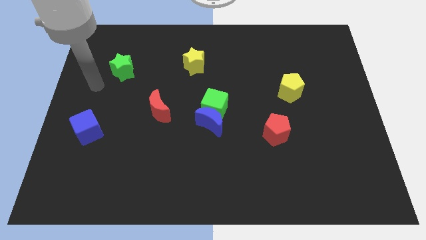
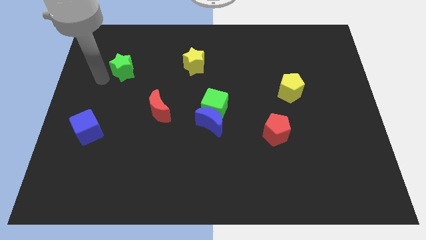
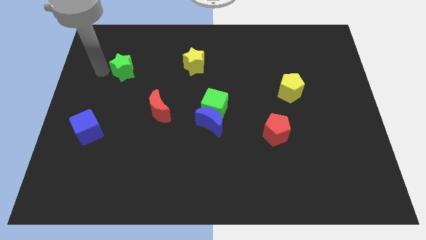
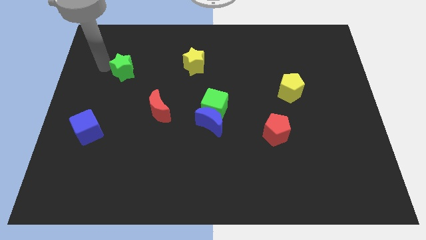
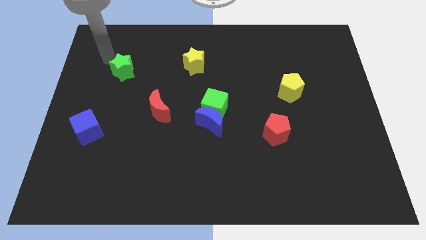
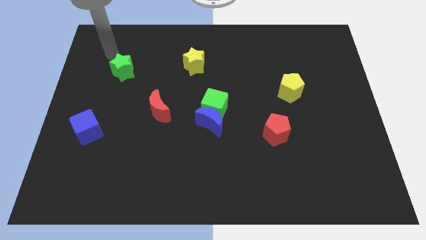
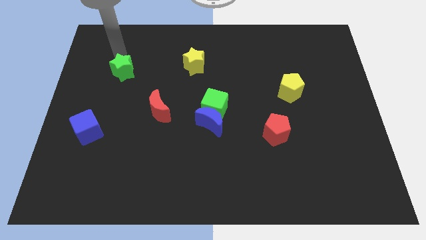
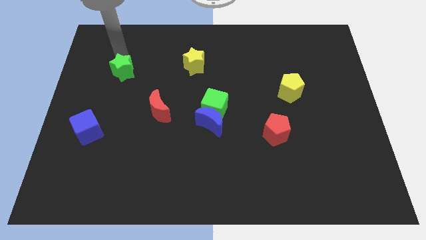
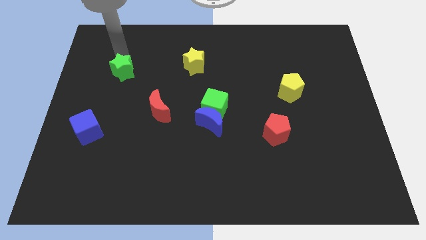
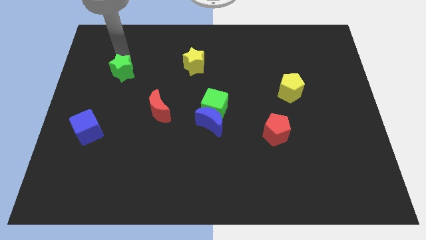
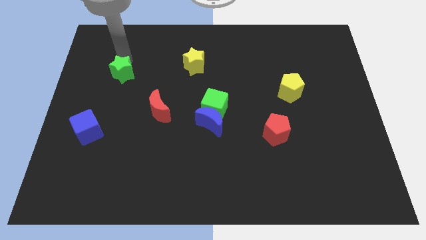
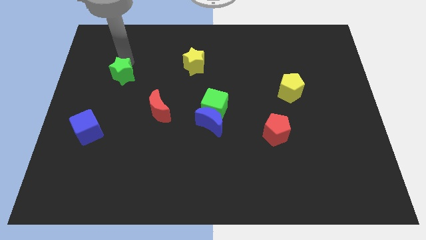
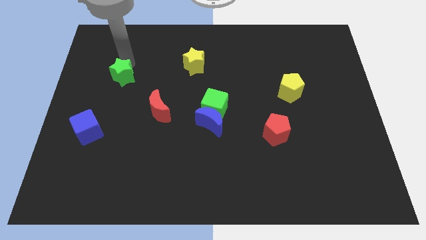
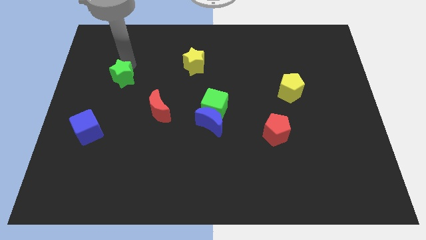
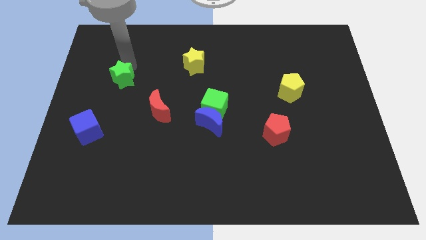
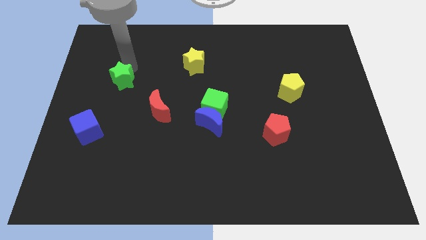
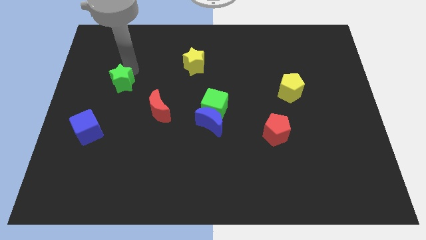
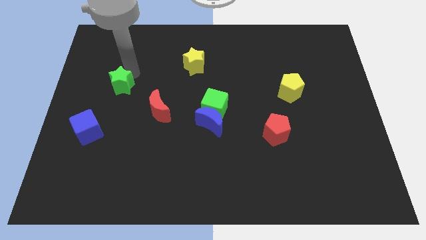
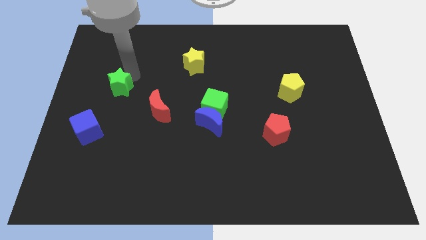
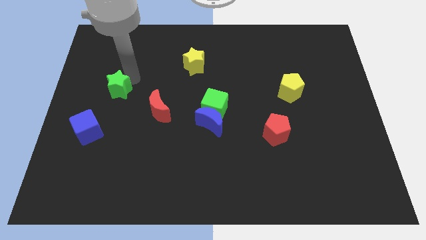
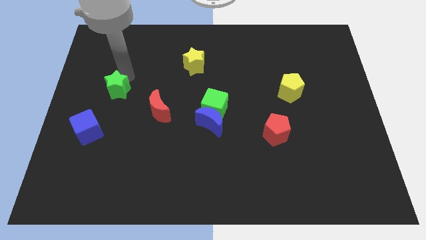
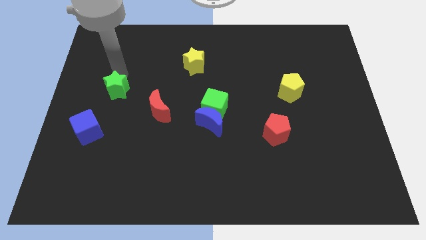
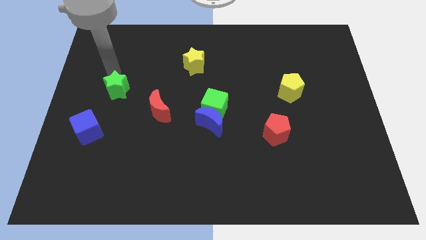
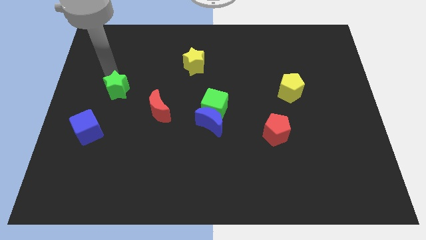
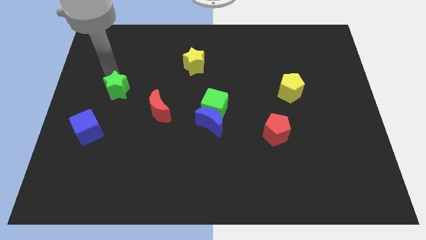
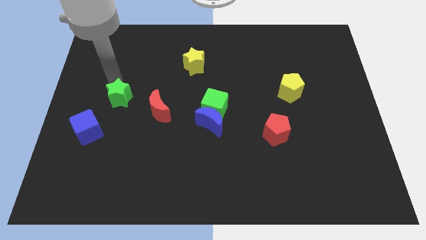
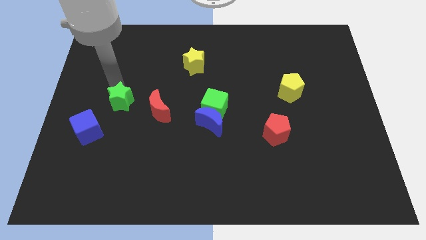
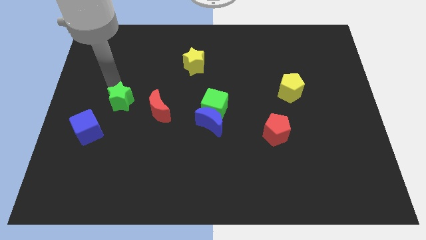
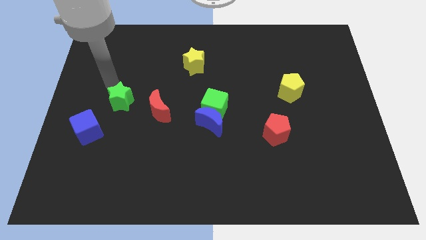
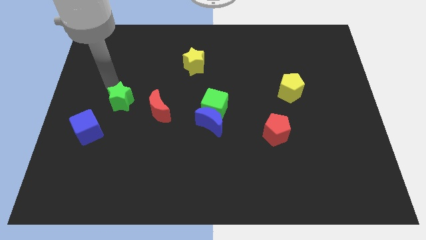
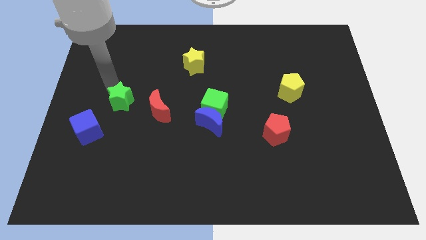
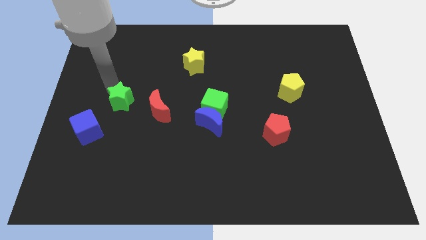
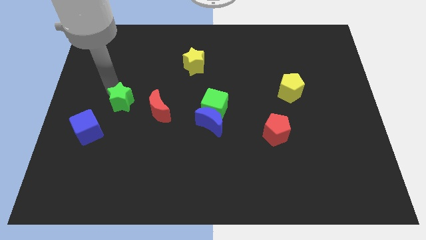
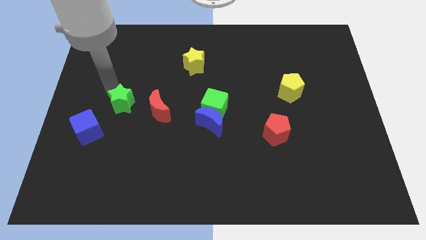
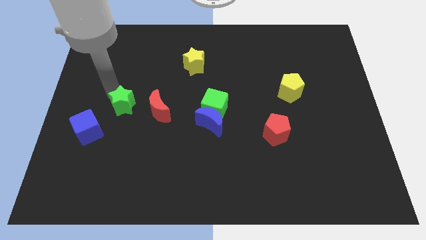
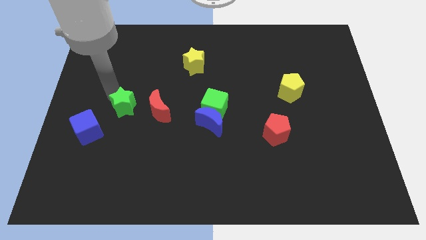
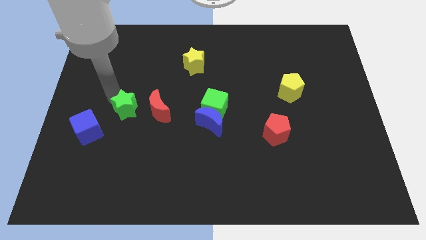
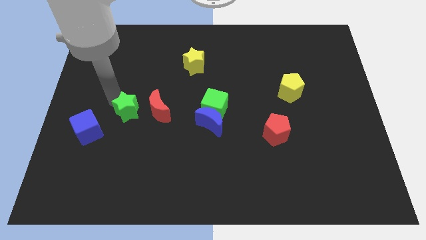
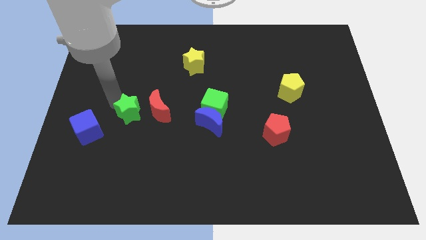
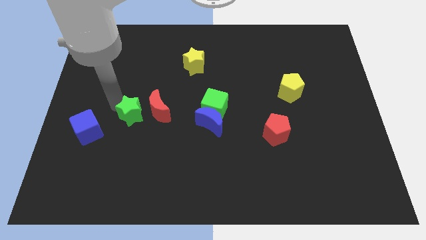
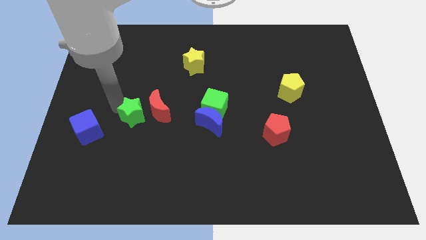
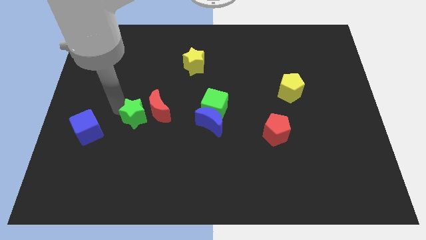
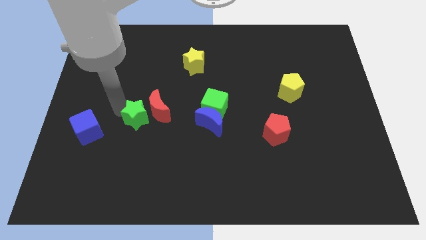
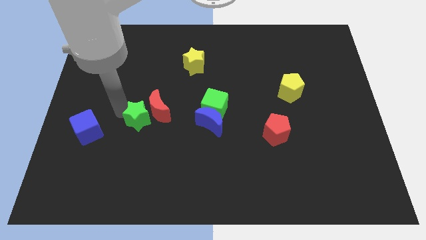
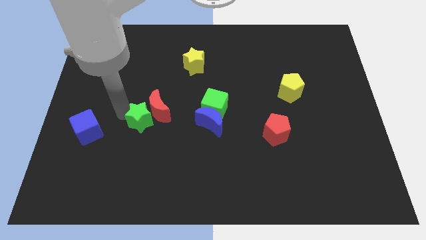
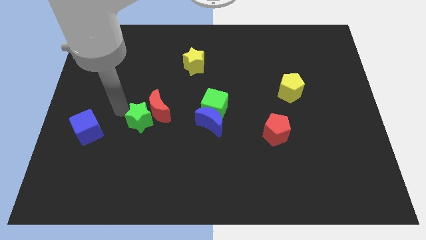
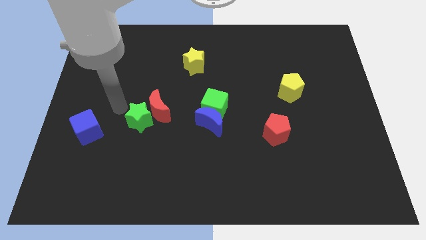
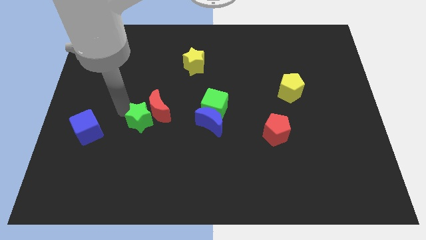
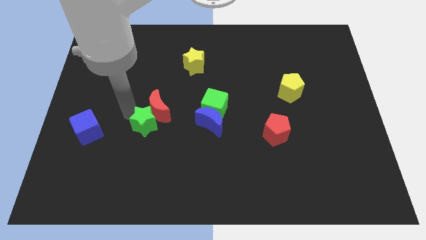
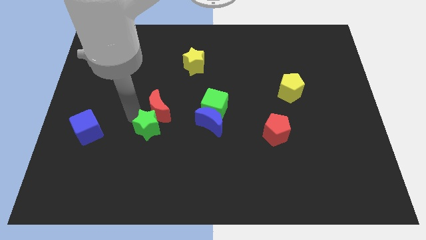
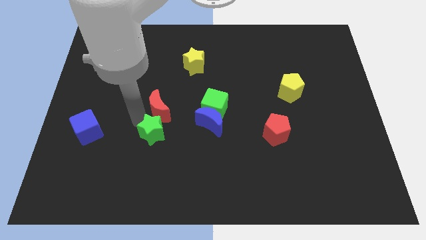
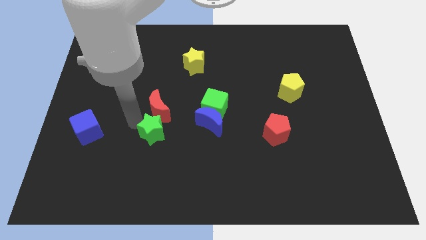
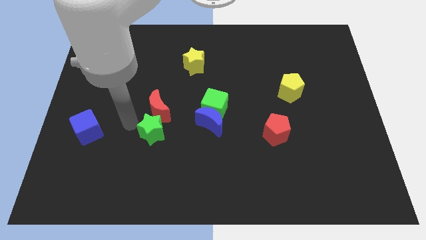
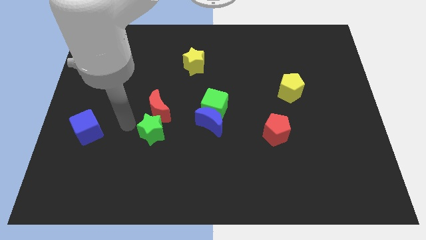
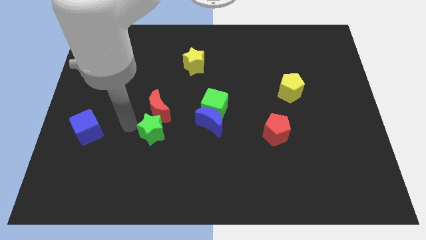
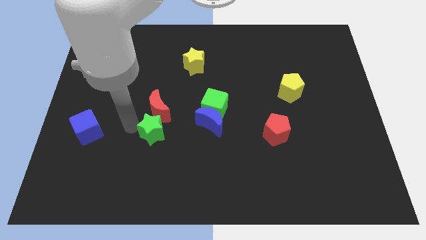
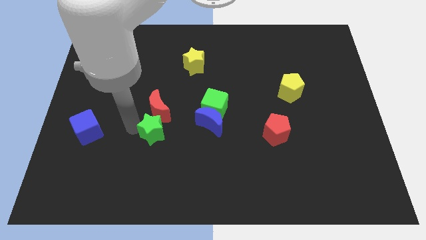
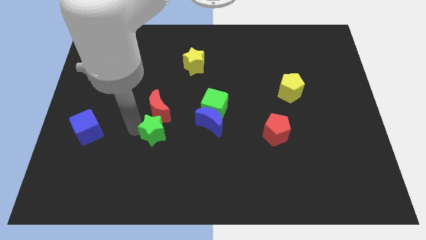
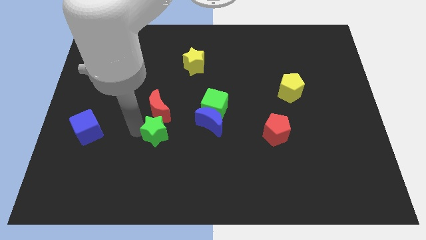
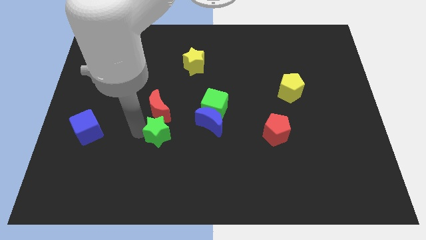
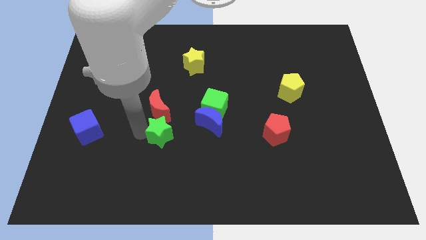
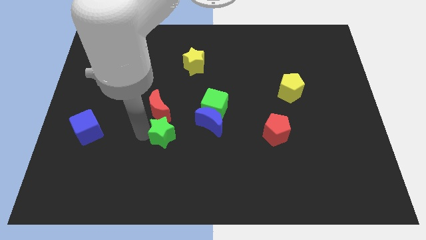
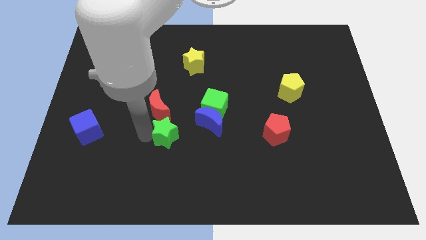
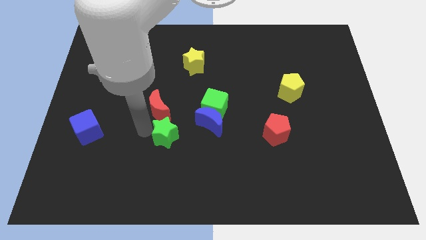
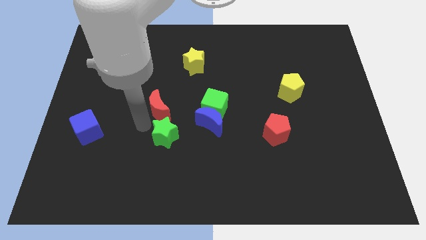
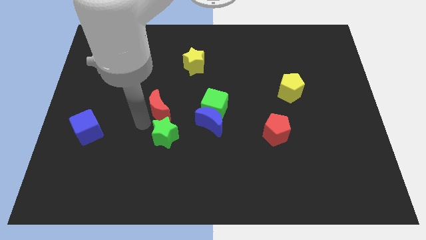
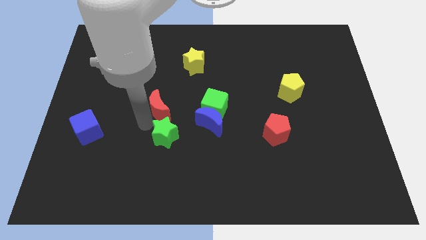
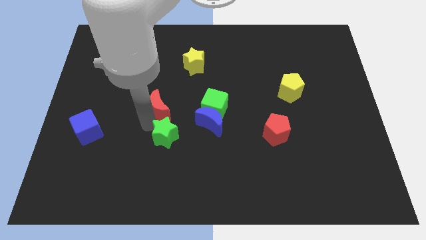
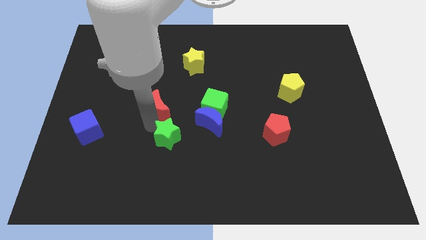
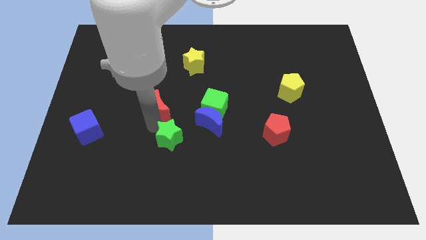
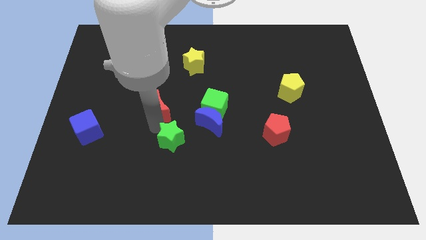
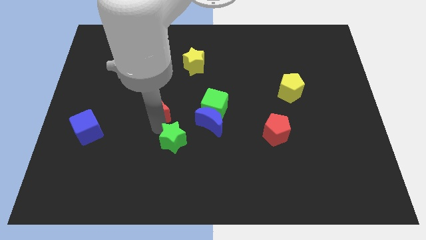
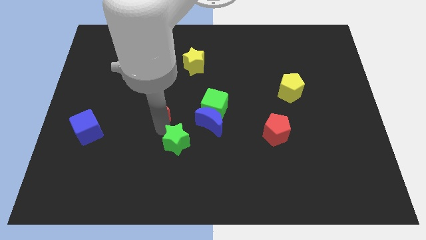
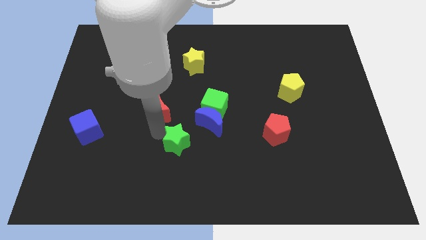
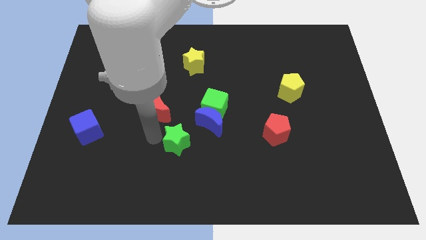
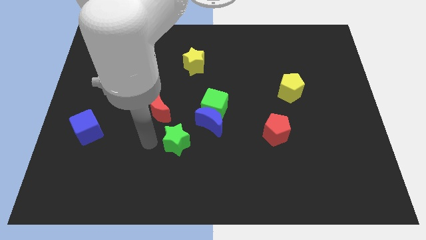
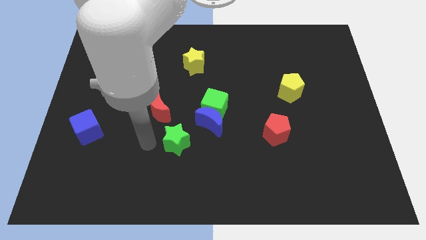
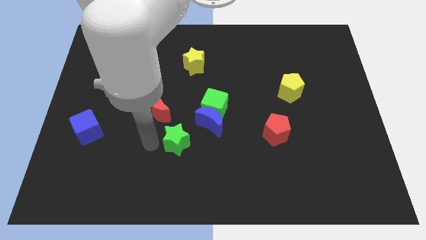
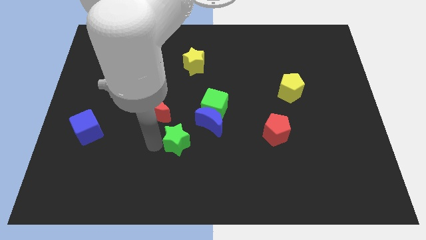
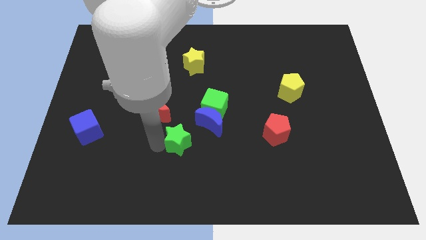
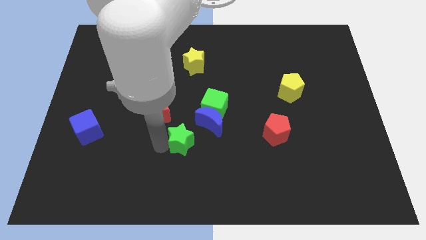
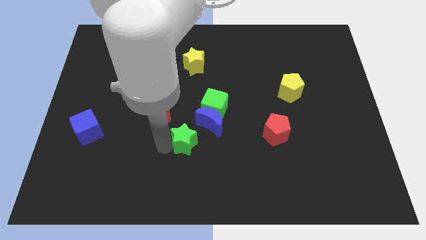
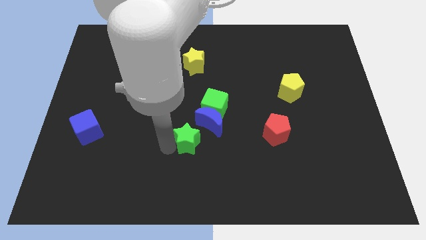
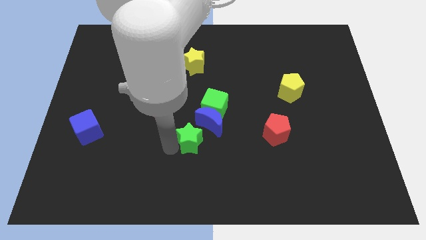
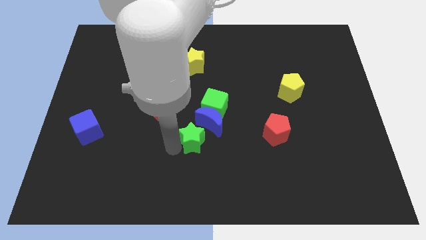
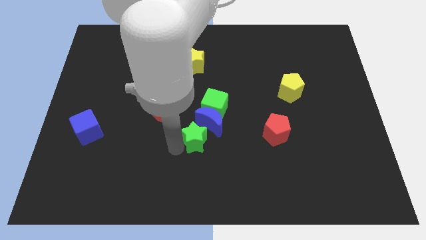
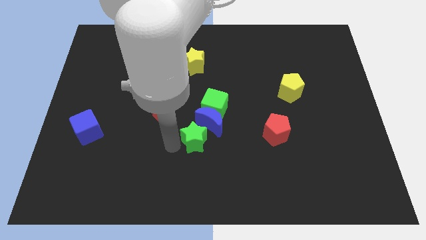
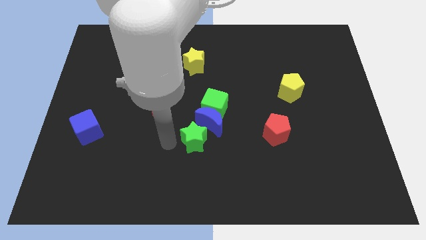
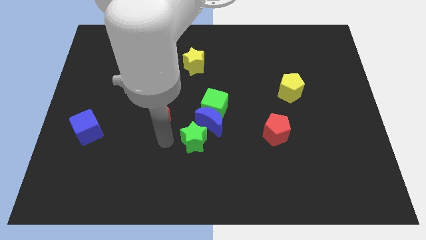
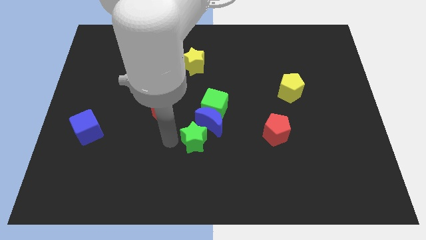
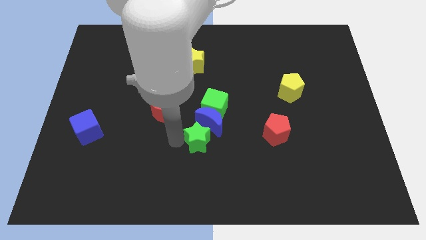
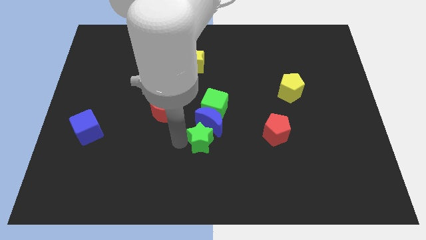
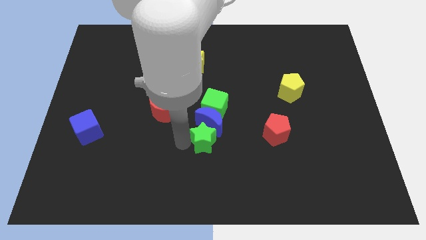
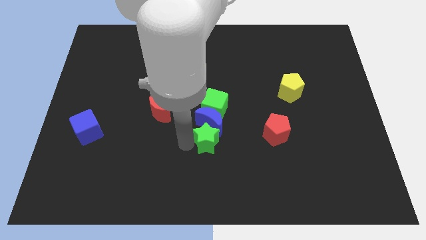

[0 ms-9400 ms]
push the green star just left of the red pentagon
